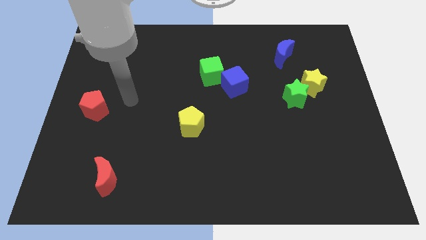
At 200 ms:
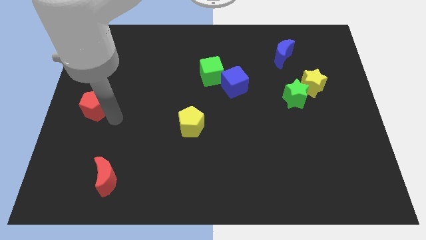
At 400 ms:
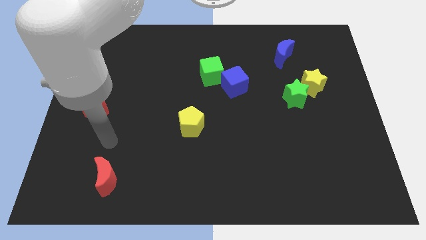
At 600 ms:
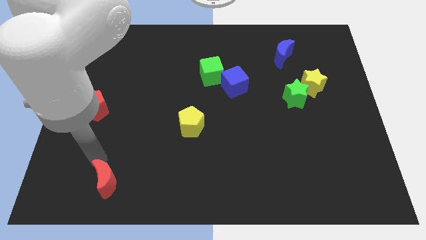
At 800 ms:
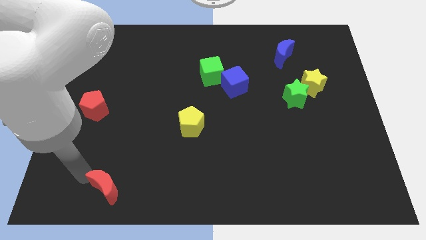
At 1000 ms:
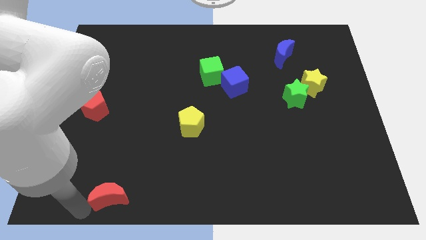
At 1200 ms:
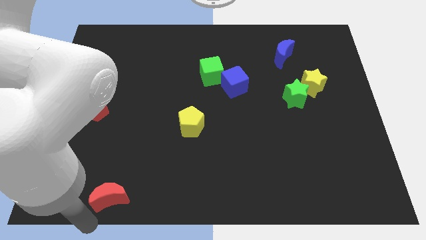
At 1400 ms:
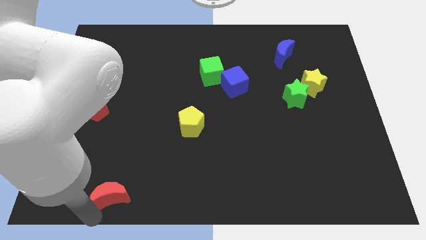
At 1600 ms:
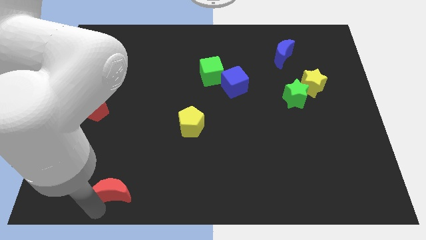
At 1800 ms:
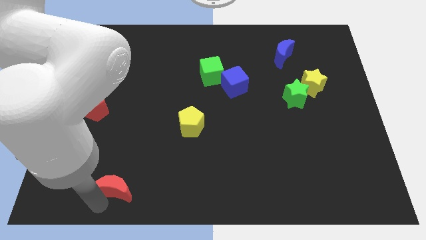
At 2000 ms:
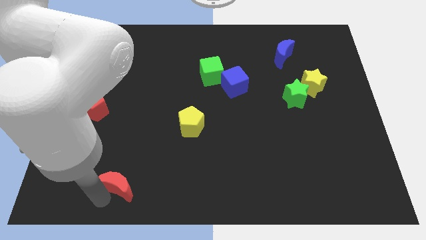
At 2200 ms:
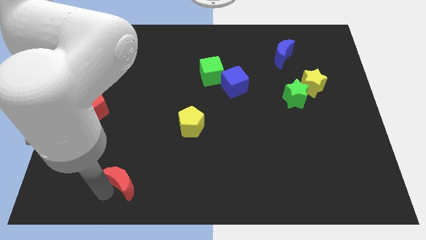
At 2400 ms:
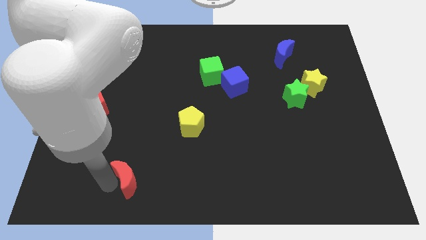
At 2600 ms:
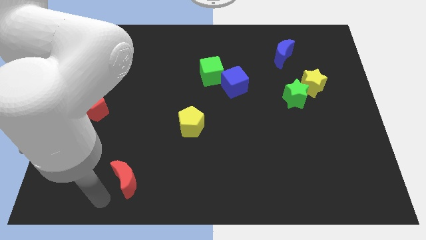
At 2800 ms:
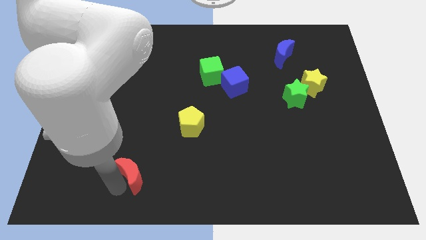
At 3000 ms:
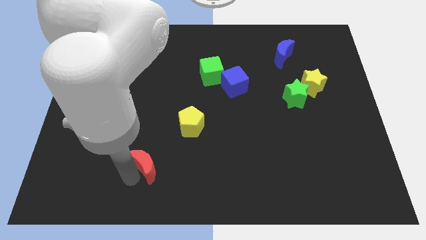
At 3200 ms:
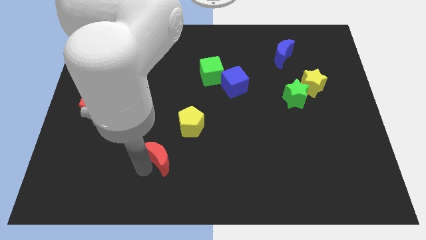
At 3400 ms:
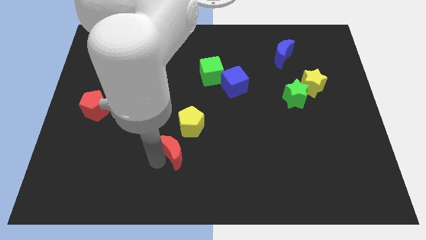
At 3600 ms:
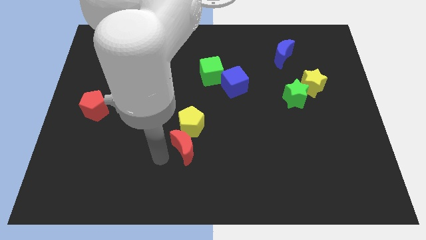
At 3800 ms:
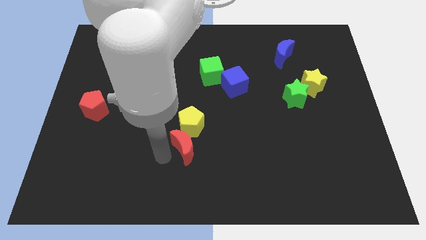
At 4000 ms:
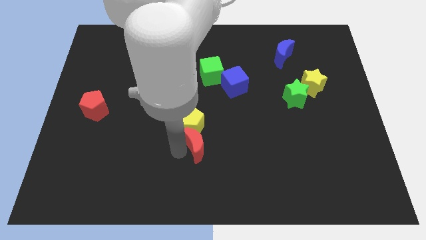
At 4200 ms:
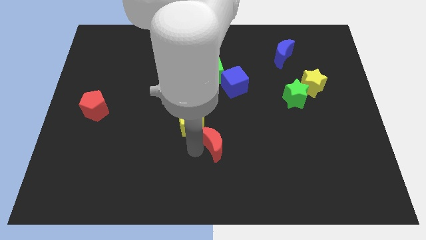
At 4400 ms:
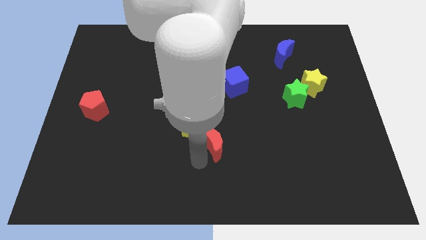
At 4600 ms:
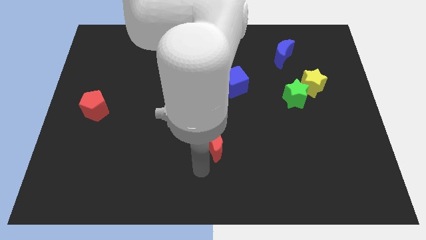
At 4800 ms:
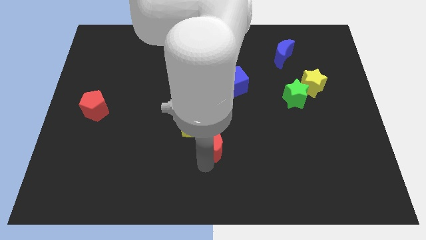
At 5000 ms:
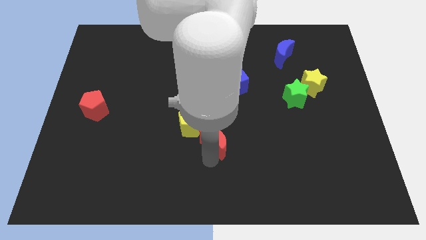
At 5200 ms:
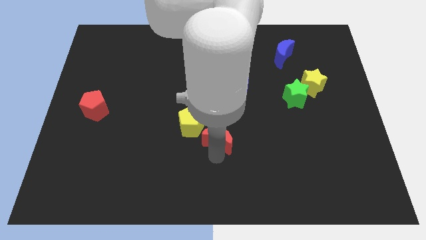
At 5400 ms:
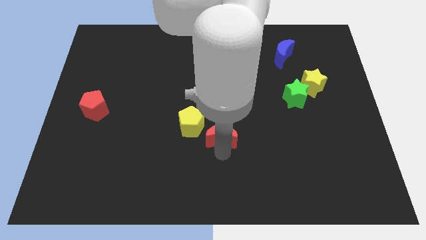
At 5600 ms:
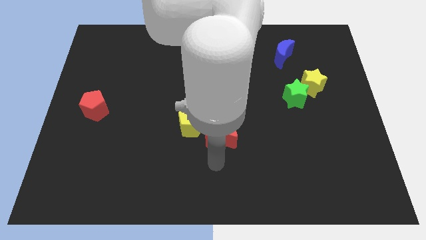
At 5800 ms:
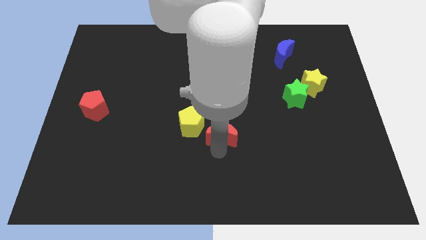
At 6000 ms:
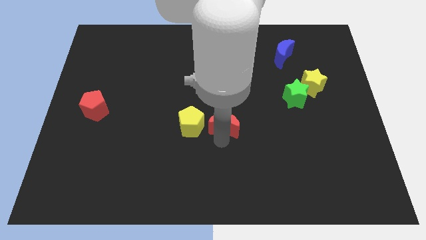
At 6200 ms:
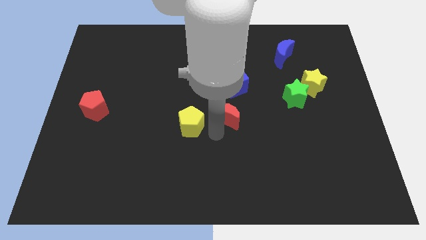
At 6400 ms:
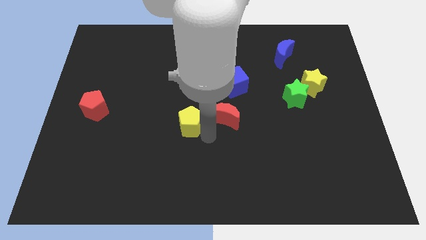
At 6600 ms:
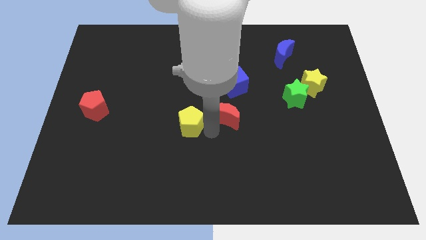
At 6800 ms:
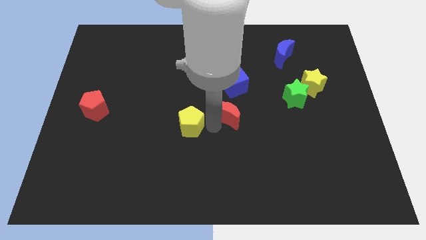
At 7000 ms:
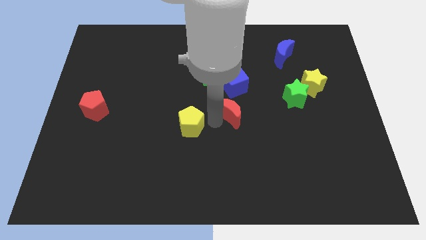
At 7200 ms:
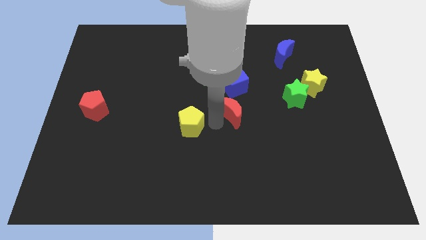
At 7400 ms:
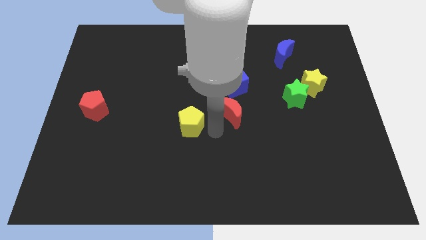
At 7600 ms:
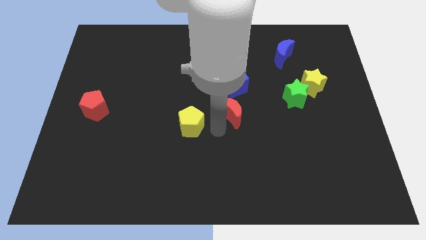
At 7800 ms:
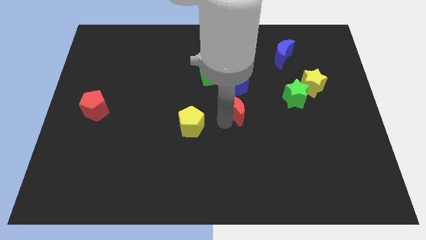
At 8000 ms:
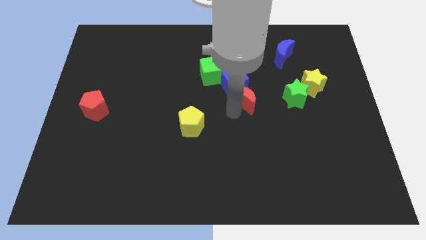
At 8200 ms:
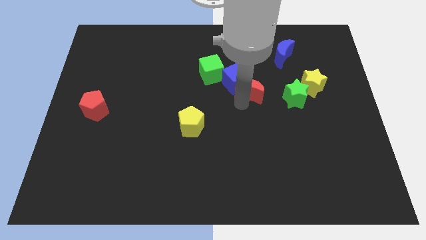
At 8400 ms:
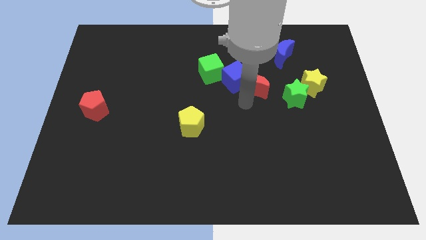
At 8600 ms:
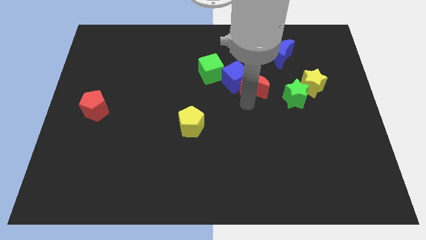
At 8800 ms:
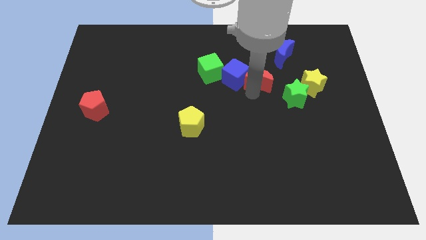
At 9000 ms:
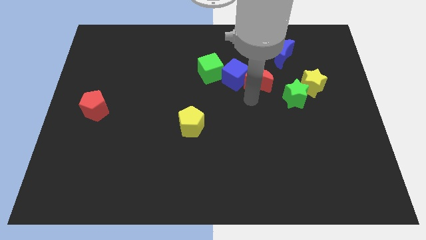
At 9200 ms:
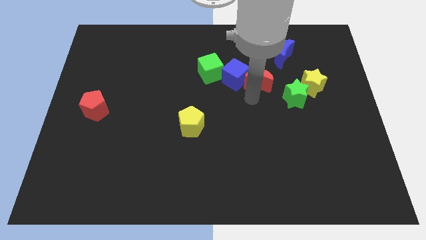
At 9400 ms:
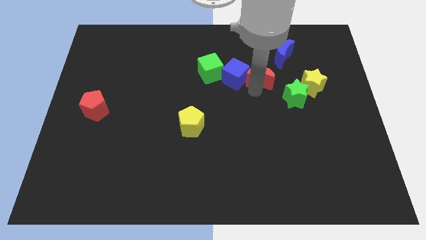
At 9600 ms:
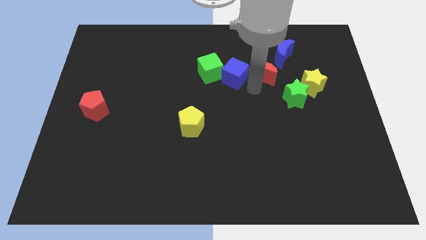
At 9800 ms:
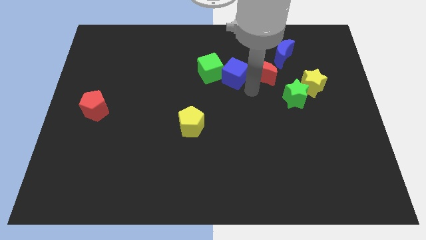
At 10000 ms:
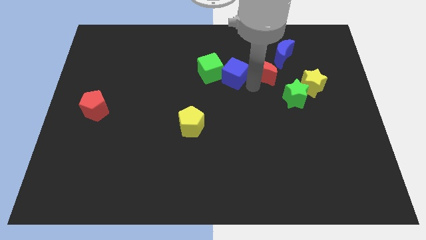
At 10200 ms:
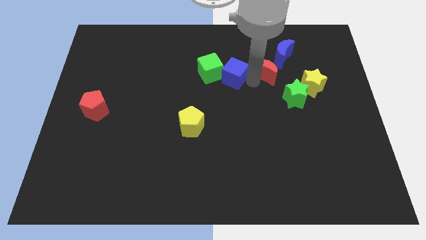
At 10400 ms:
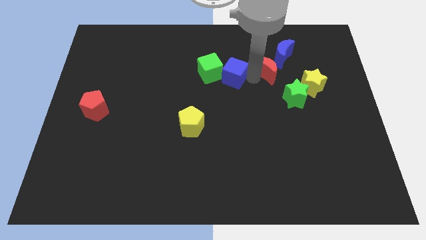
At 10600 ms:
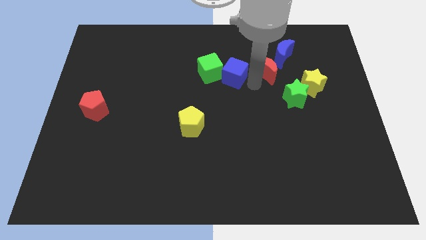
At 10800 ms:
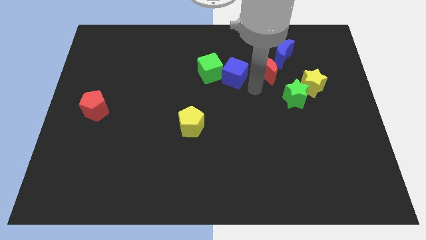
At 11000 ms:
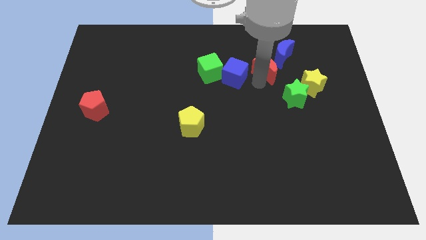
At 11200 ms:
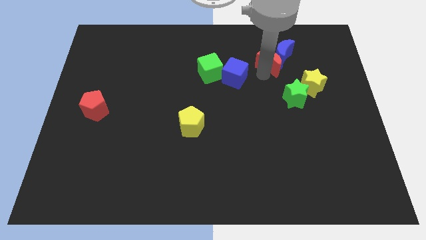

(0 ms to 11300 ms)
put the red moon to the blue moon

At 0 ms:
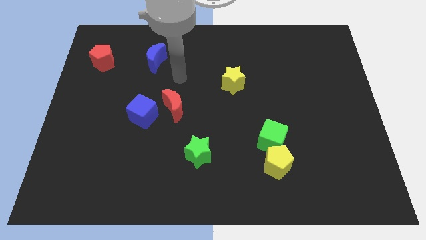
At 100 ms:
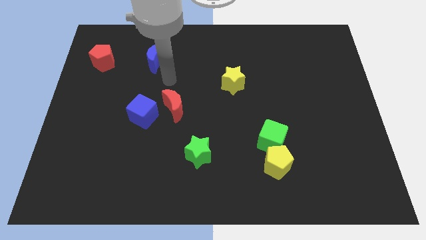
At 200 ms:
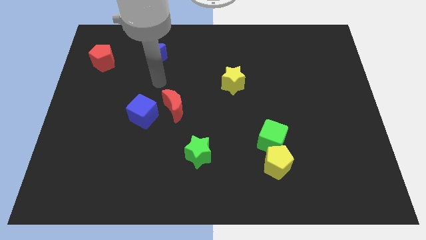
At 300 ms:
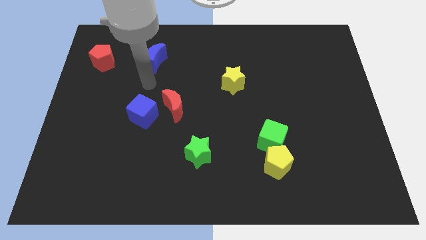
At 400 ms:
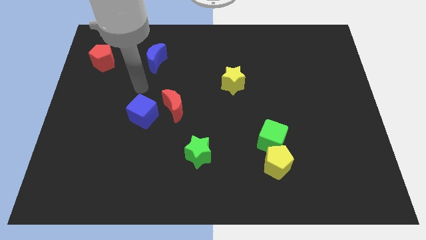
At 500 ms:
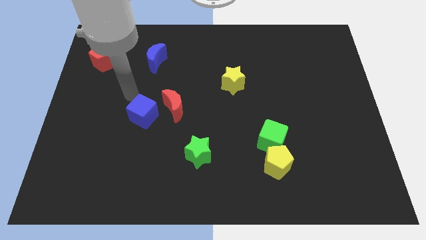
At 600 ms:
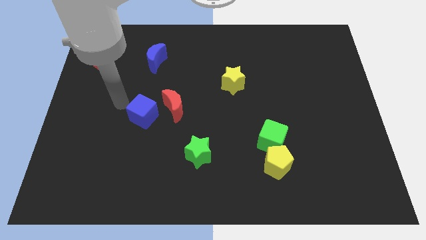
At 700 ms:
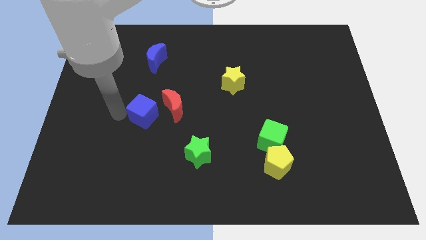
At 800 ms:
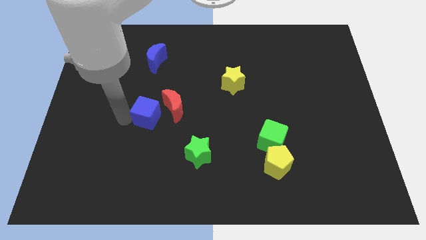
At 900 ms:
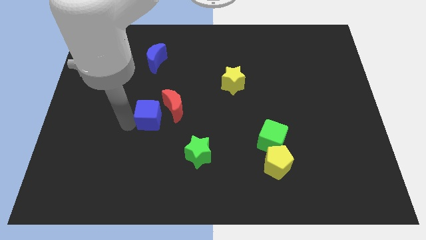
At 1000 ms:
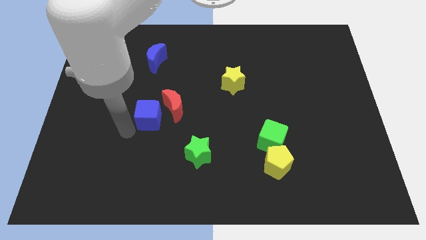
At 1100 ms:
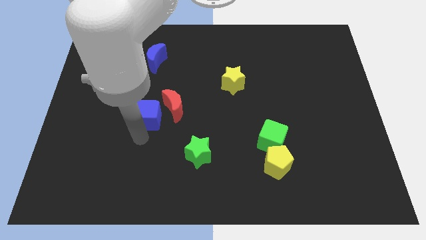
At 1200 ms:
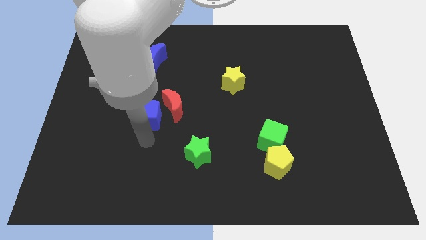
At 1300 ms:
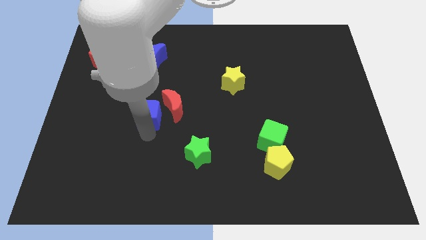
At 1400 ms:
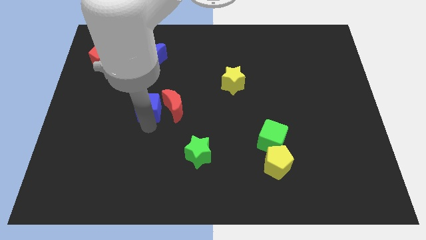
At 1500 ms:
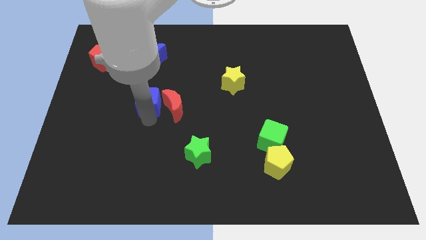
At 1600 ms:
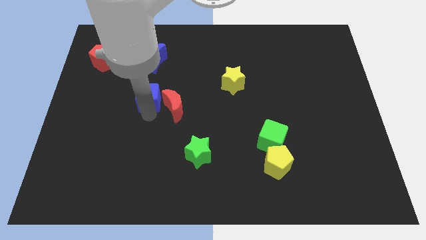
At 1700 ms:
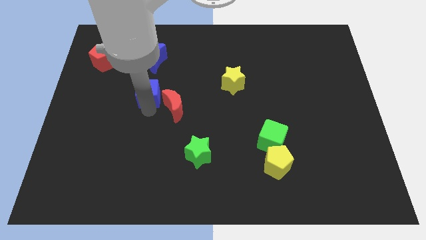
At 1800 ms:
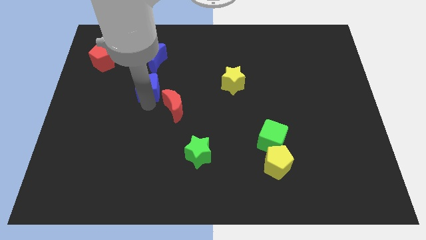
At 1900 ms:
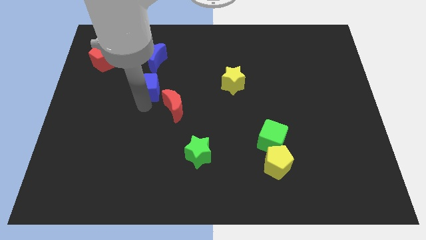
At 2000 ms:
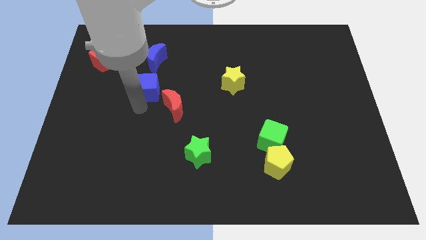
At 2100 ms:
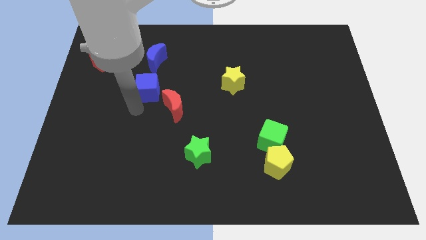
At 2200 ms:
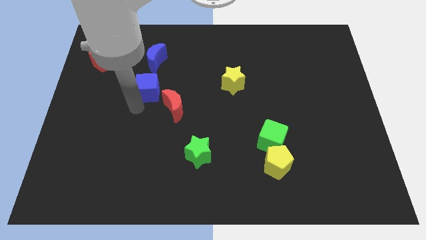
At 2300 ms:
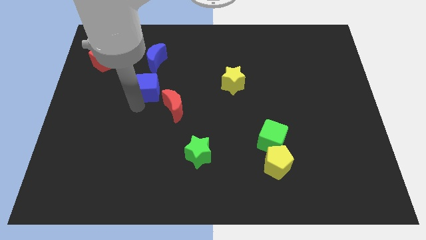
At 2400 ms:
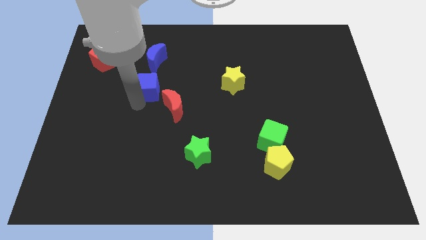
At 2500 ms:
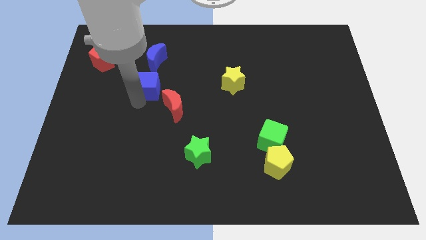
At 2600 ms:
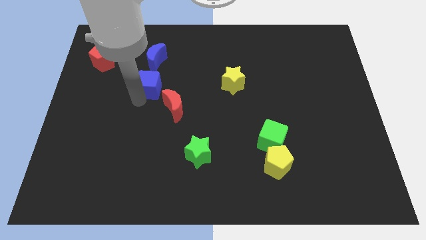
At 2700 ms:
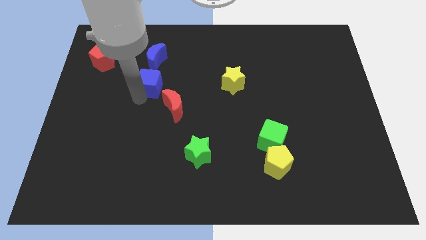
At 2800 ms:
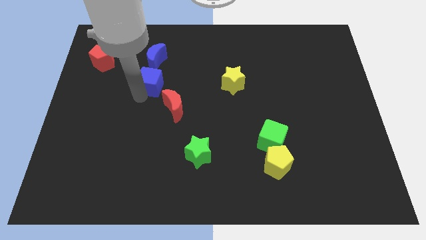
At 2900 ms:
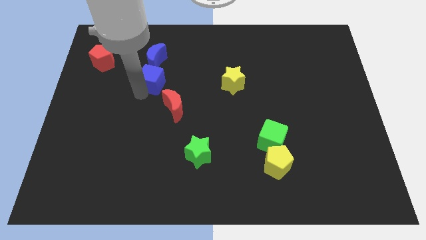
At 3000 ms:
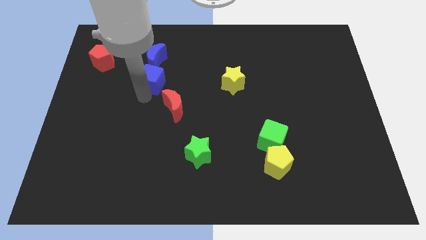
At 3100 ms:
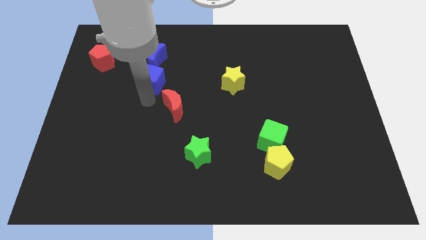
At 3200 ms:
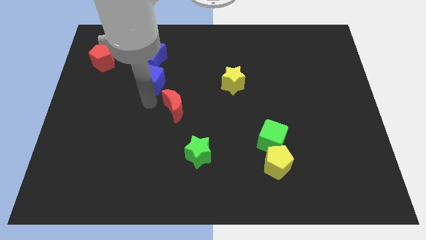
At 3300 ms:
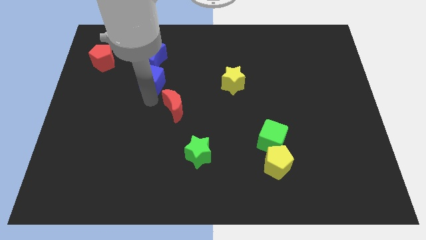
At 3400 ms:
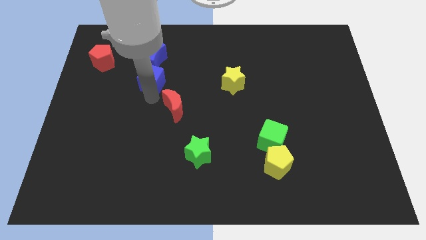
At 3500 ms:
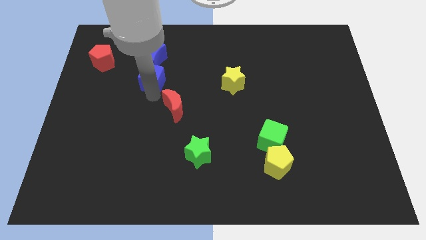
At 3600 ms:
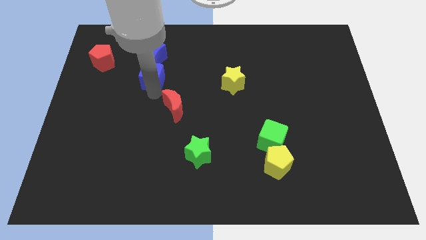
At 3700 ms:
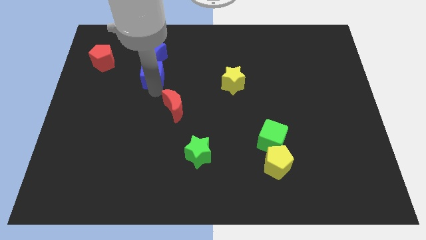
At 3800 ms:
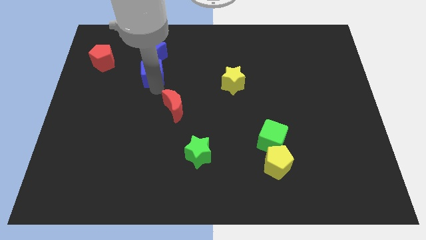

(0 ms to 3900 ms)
put the blue cube close to the blue moon
